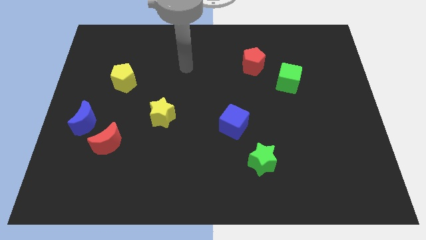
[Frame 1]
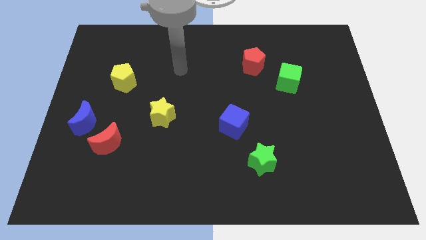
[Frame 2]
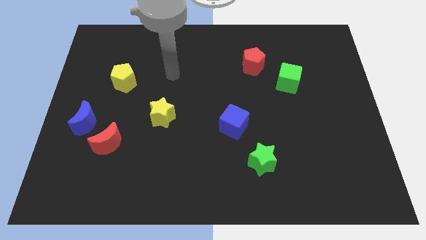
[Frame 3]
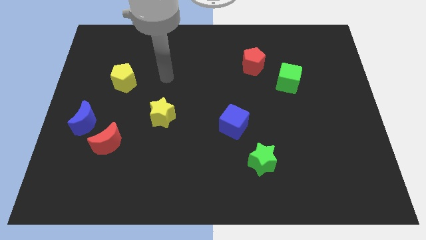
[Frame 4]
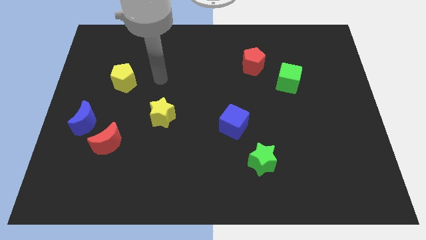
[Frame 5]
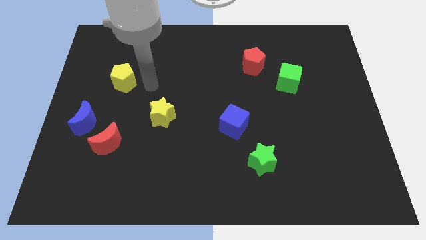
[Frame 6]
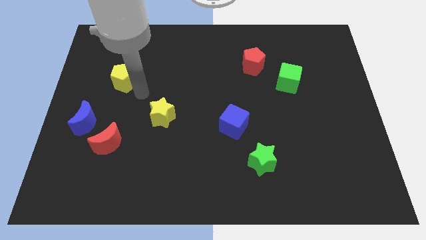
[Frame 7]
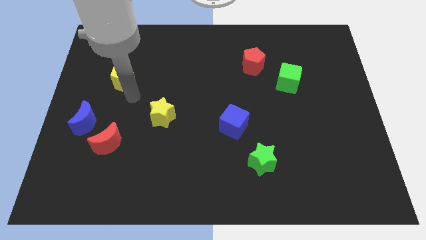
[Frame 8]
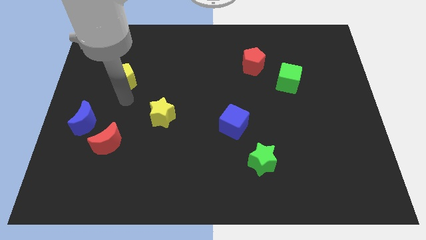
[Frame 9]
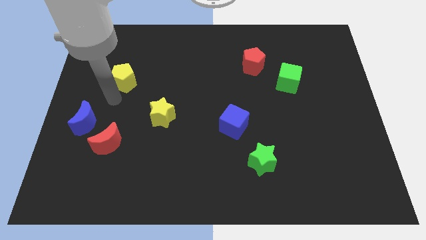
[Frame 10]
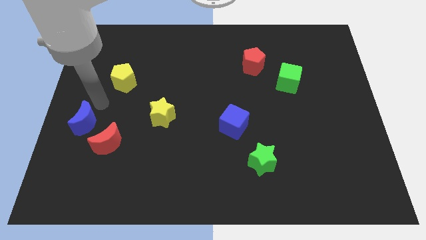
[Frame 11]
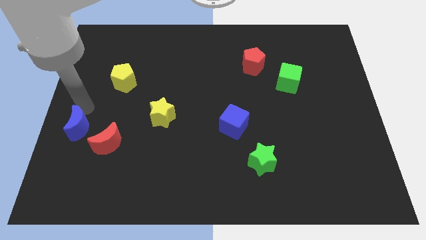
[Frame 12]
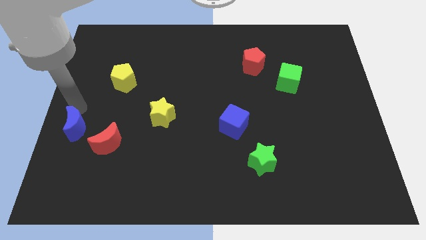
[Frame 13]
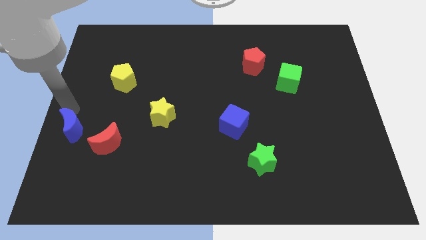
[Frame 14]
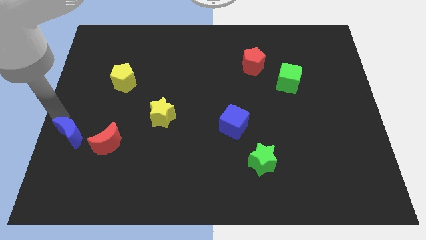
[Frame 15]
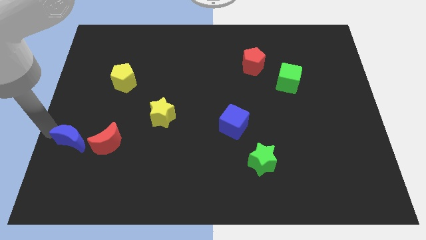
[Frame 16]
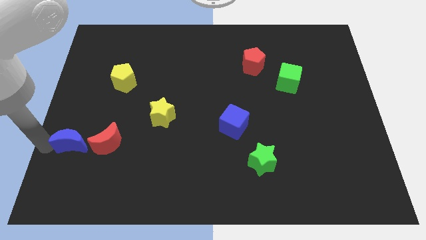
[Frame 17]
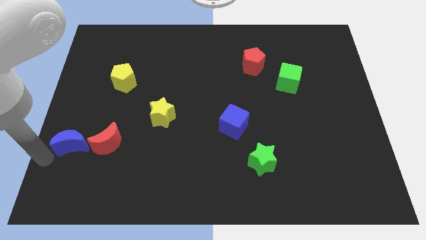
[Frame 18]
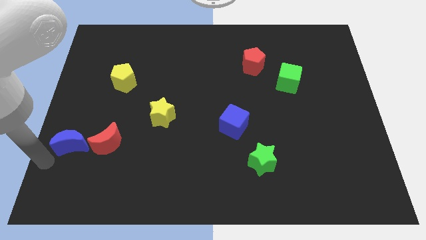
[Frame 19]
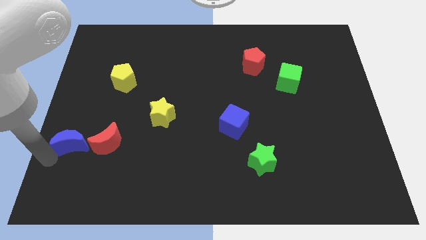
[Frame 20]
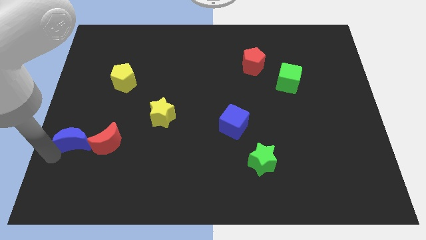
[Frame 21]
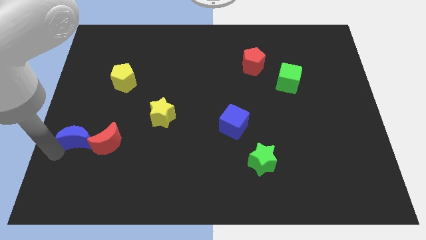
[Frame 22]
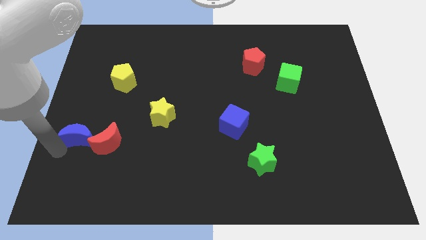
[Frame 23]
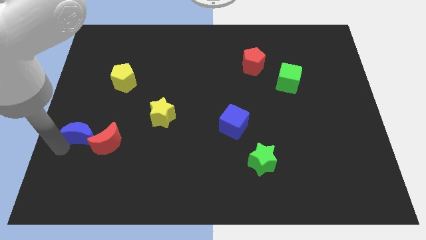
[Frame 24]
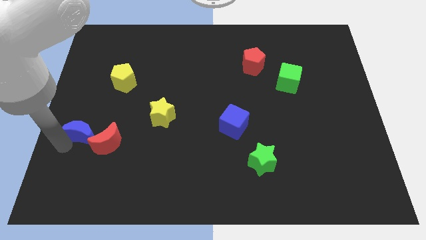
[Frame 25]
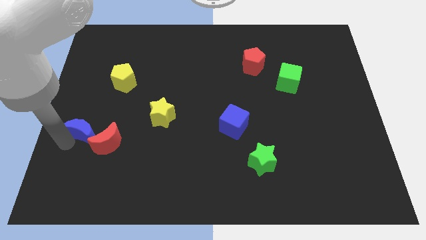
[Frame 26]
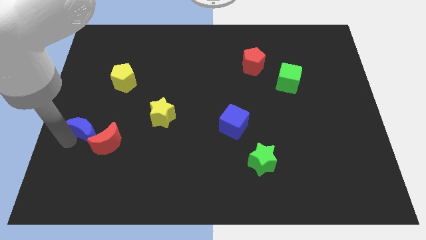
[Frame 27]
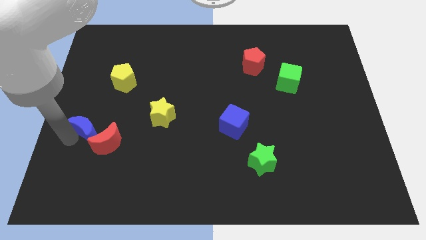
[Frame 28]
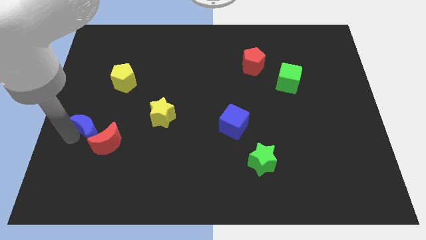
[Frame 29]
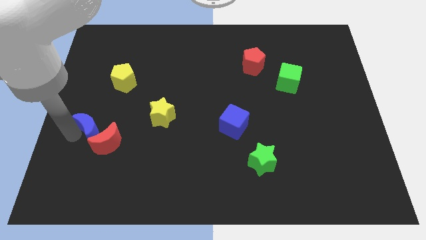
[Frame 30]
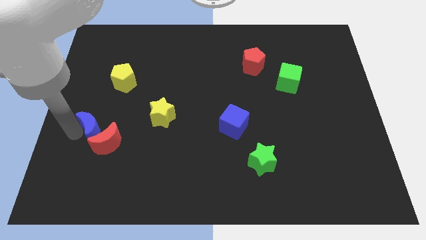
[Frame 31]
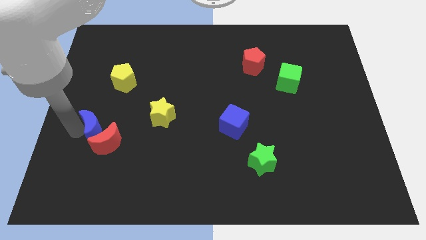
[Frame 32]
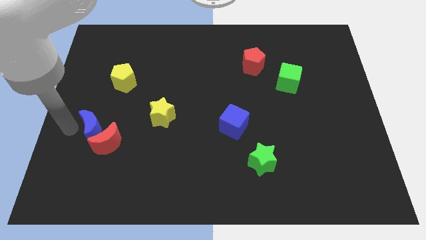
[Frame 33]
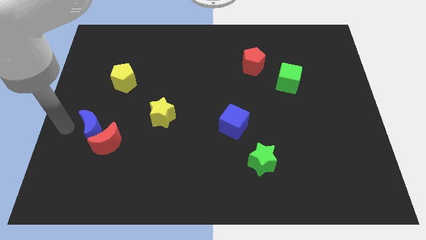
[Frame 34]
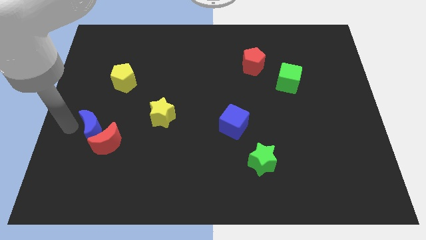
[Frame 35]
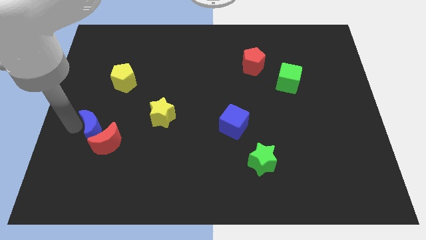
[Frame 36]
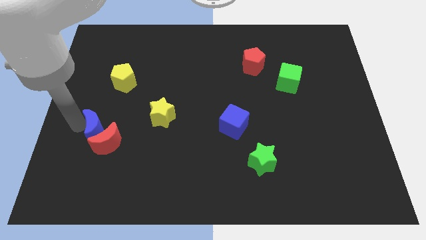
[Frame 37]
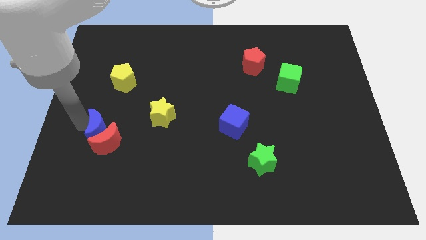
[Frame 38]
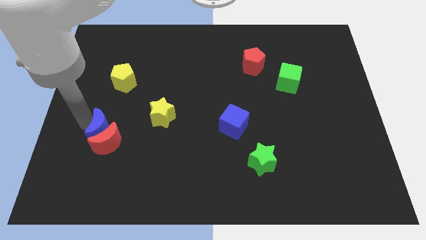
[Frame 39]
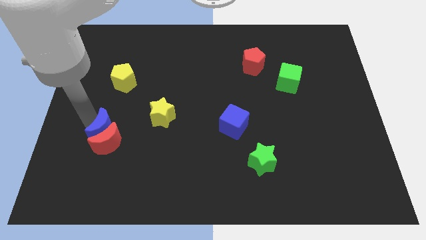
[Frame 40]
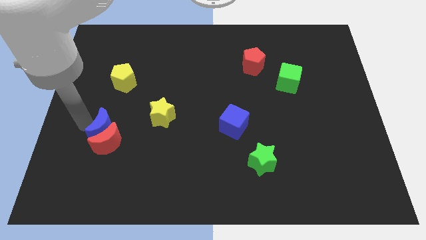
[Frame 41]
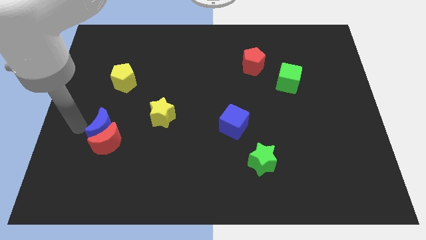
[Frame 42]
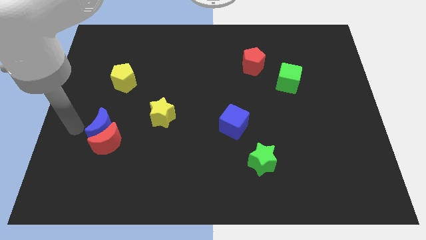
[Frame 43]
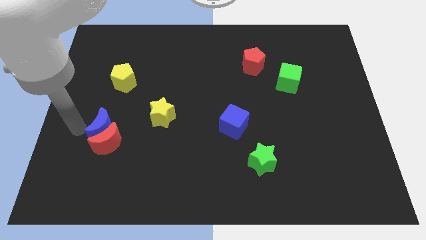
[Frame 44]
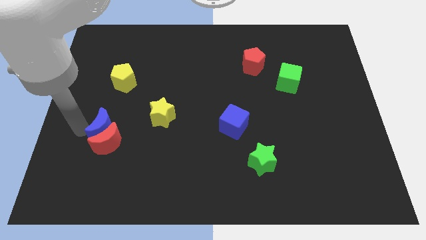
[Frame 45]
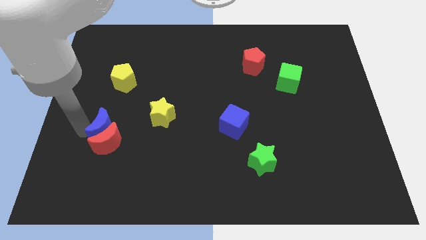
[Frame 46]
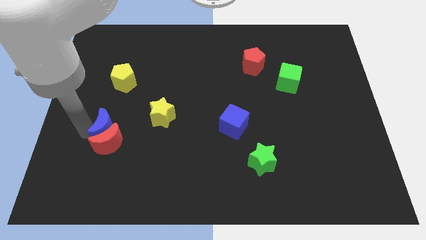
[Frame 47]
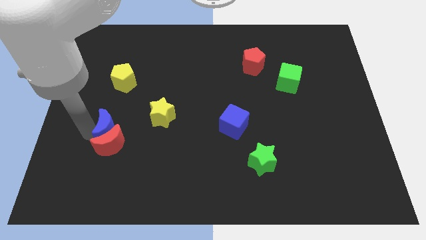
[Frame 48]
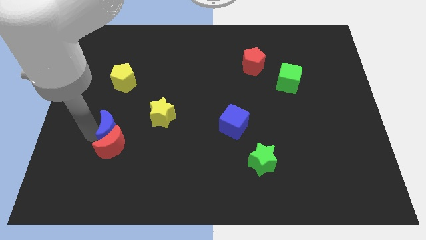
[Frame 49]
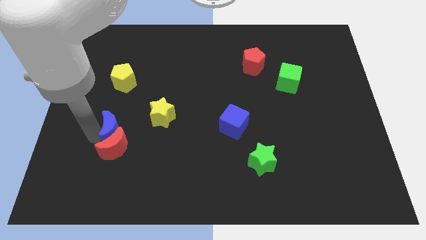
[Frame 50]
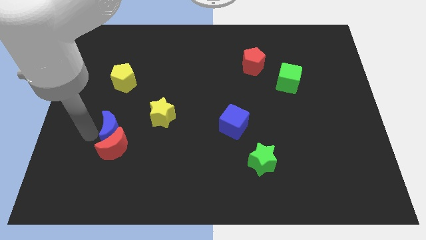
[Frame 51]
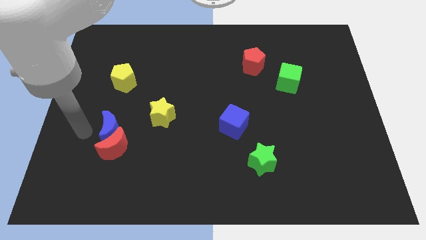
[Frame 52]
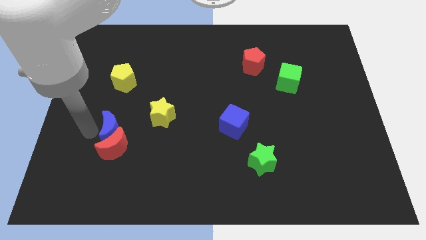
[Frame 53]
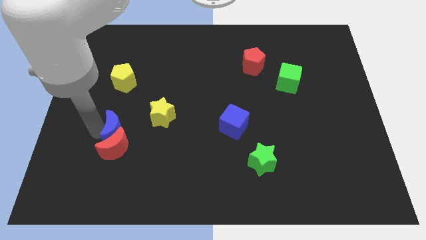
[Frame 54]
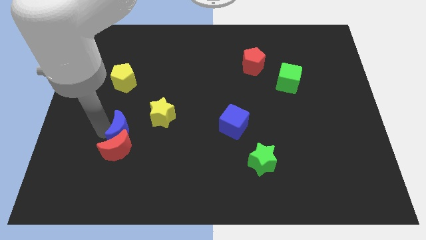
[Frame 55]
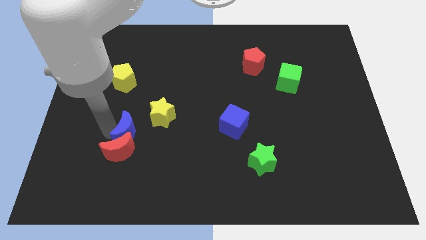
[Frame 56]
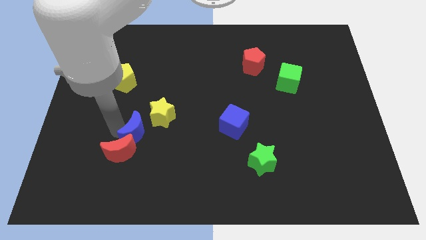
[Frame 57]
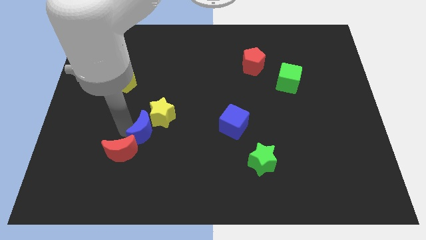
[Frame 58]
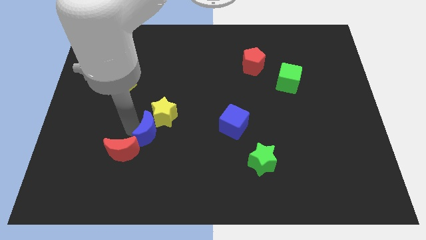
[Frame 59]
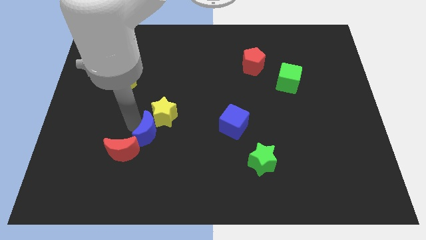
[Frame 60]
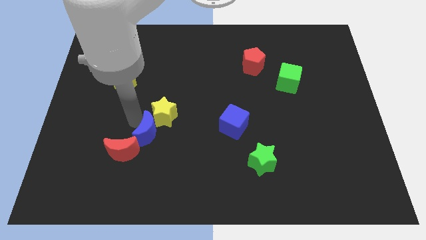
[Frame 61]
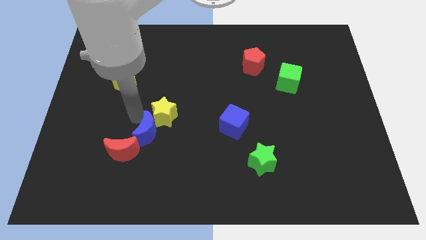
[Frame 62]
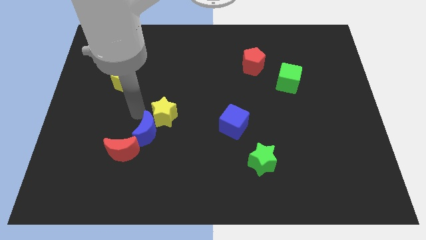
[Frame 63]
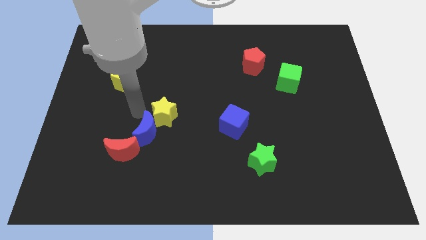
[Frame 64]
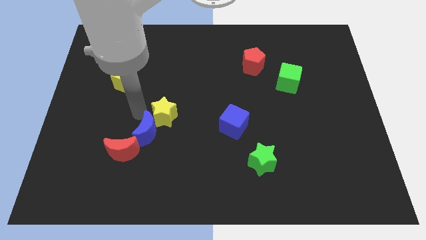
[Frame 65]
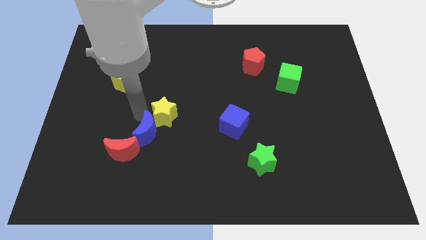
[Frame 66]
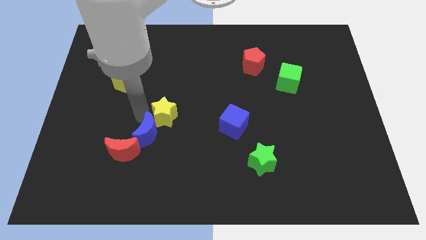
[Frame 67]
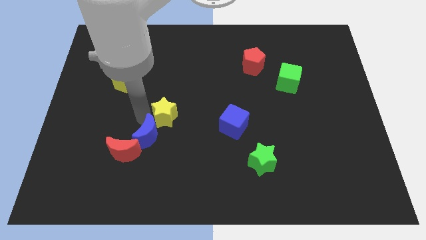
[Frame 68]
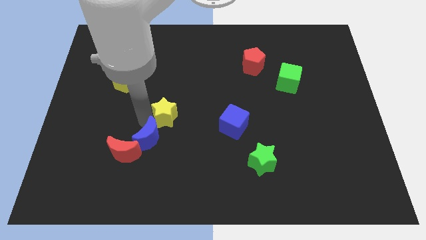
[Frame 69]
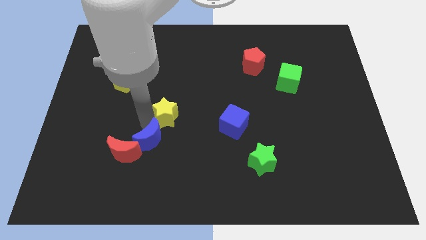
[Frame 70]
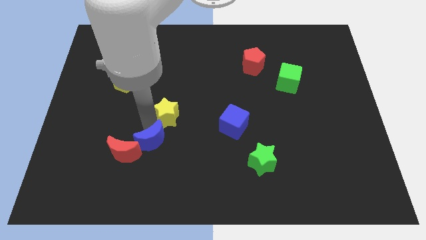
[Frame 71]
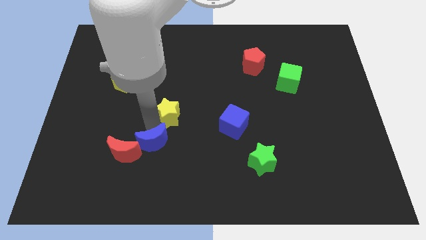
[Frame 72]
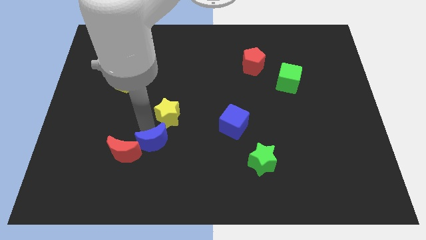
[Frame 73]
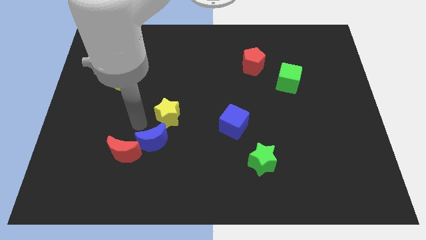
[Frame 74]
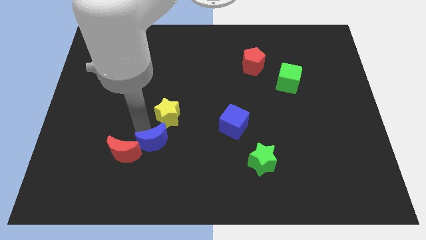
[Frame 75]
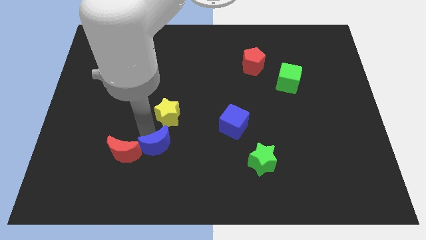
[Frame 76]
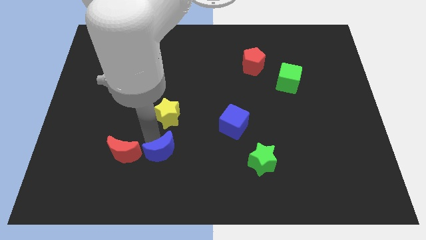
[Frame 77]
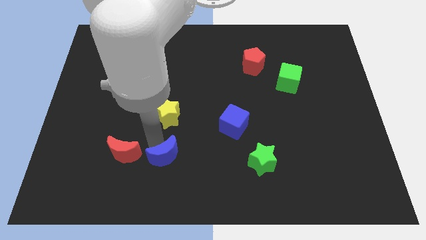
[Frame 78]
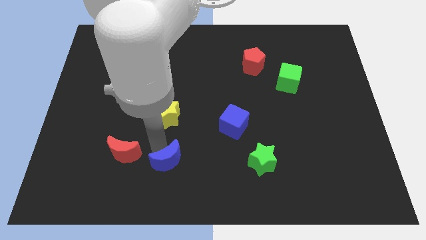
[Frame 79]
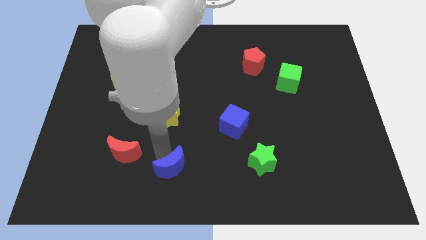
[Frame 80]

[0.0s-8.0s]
slide the blue moon to the bottom
